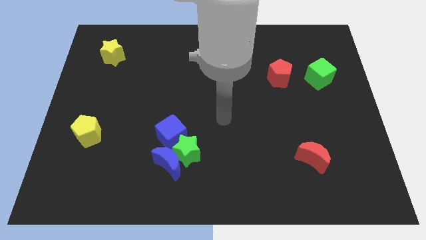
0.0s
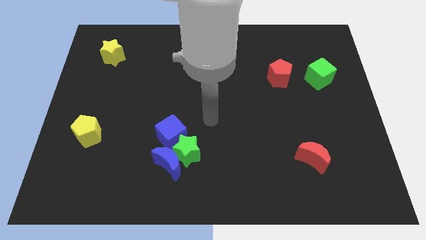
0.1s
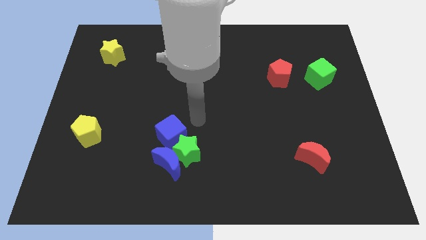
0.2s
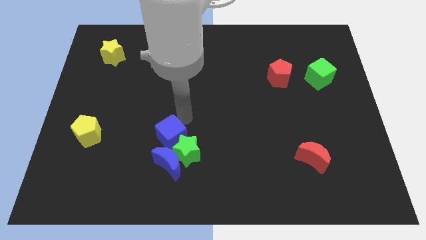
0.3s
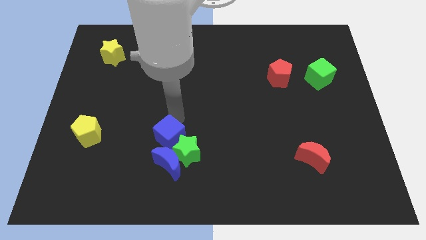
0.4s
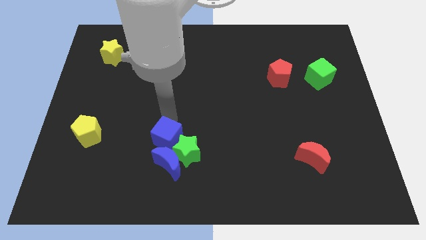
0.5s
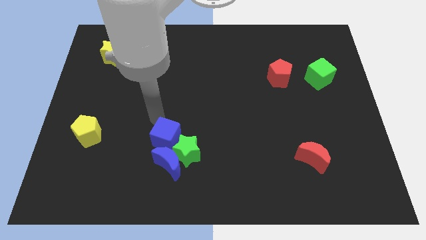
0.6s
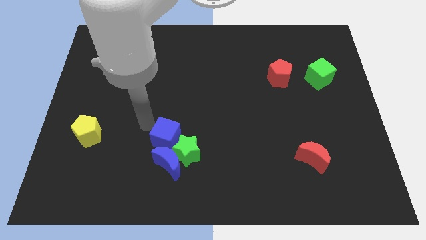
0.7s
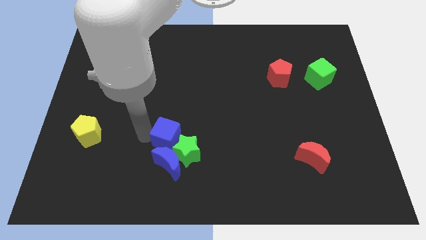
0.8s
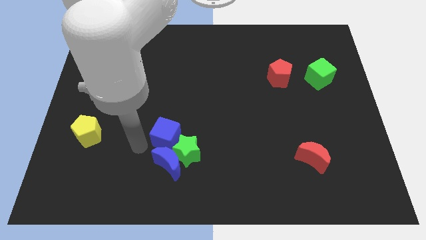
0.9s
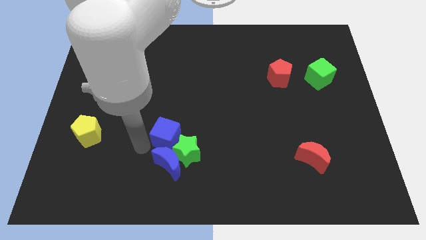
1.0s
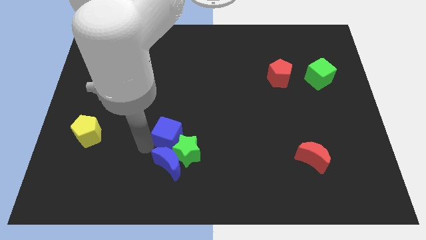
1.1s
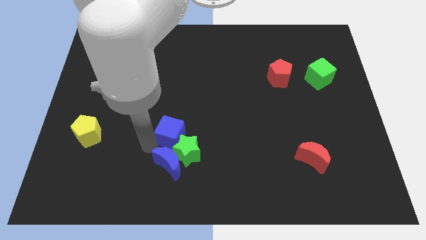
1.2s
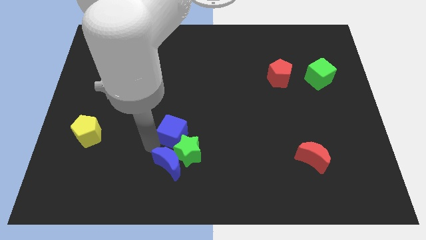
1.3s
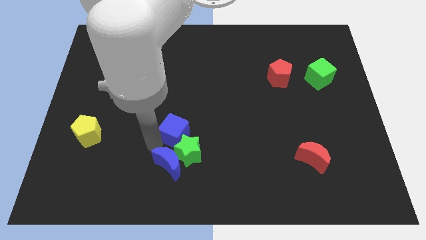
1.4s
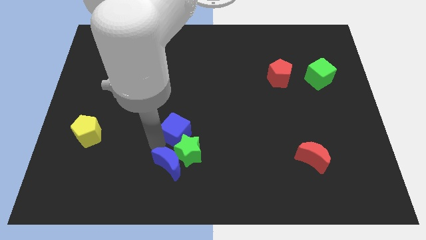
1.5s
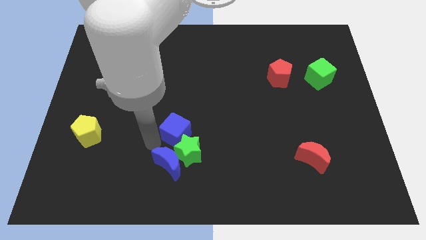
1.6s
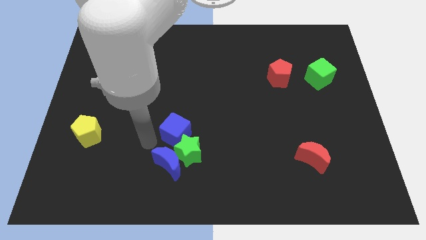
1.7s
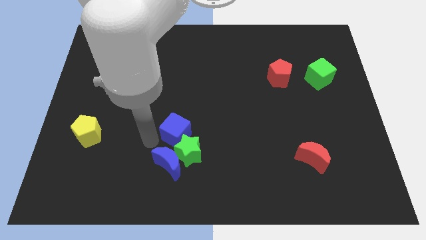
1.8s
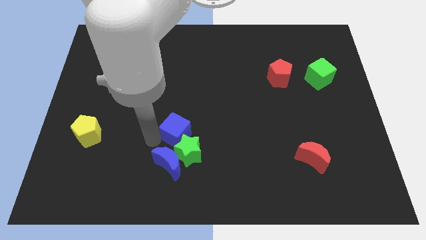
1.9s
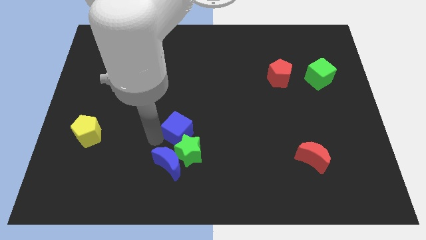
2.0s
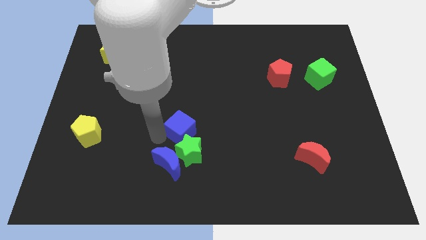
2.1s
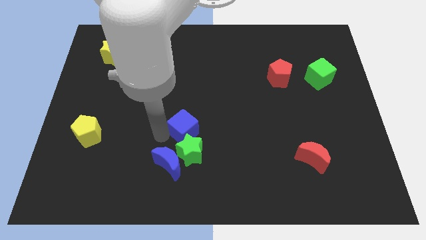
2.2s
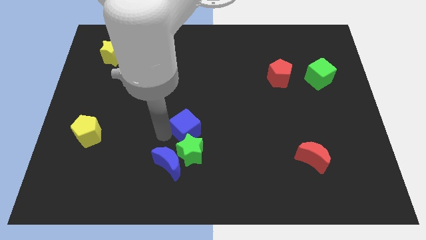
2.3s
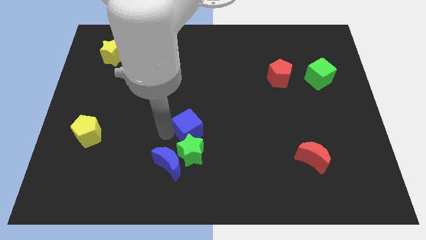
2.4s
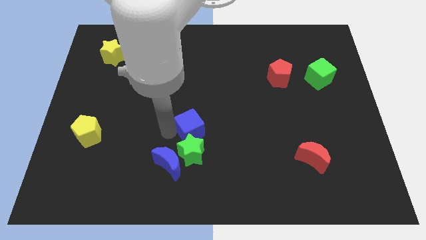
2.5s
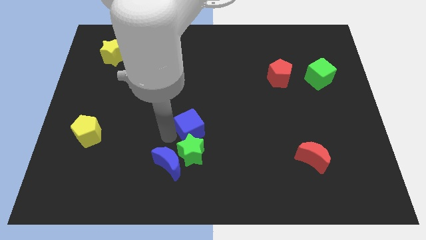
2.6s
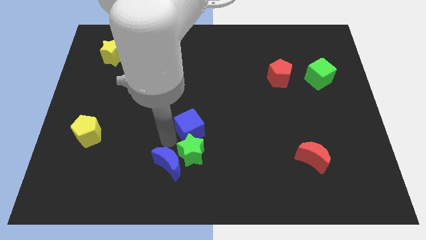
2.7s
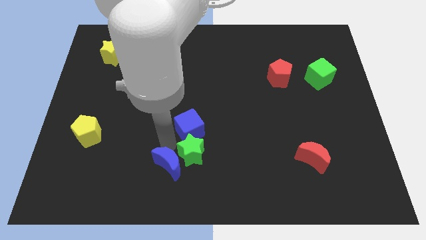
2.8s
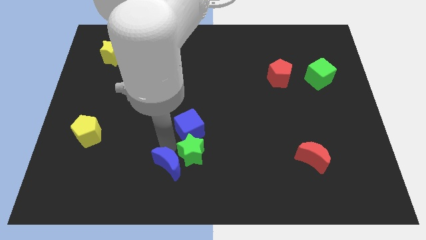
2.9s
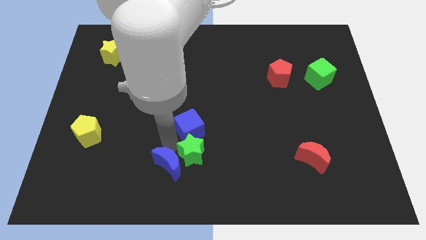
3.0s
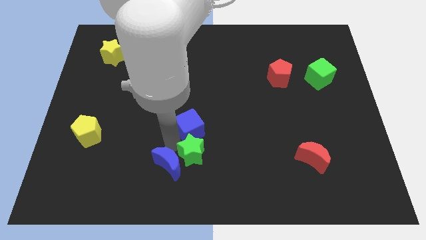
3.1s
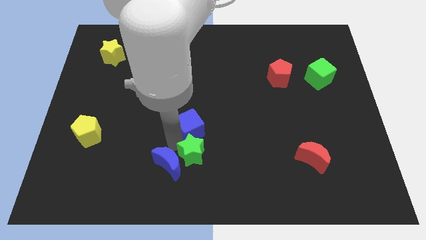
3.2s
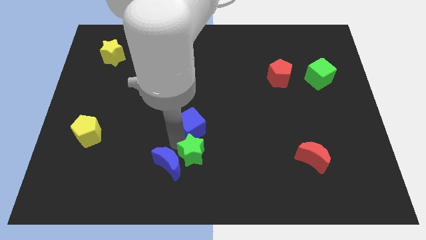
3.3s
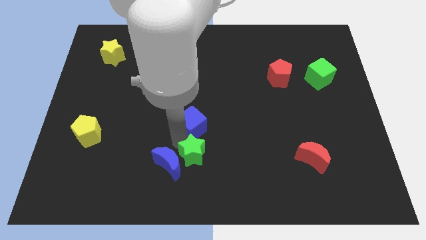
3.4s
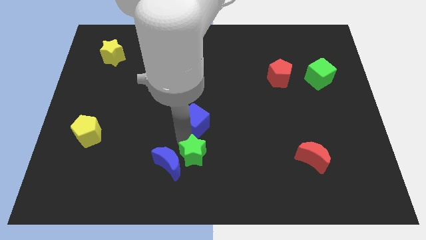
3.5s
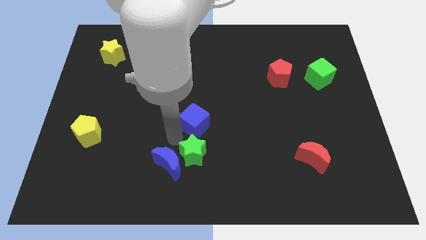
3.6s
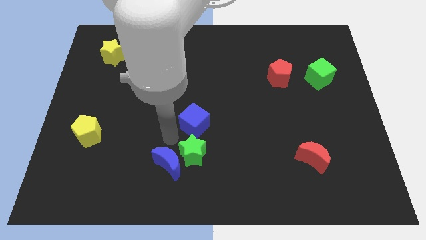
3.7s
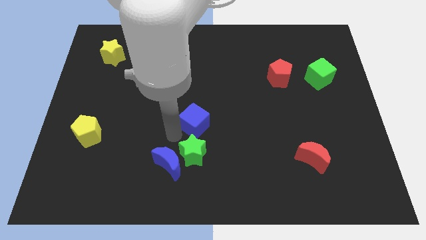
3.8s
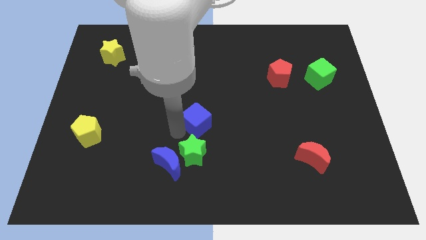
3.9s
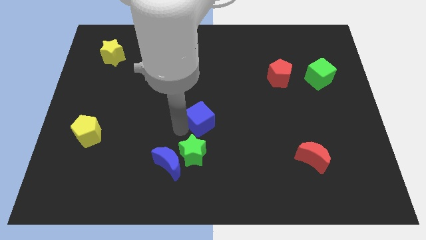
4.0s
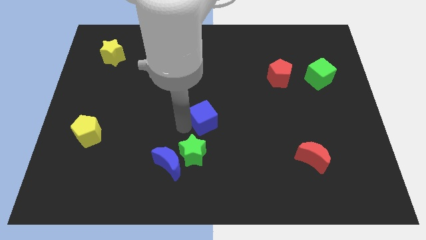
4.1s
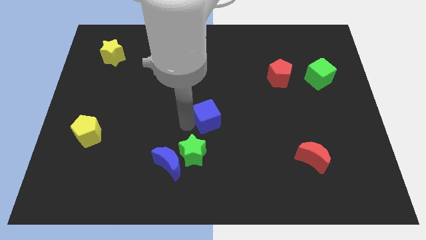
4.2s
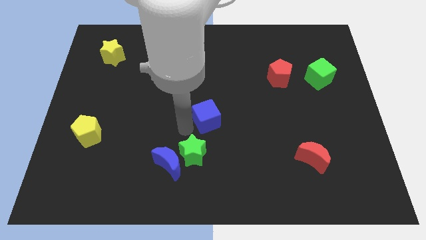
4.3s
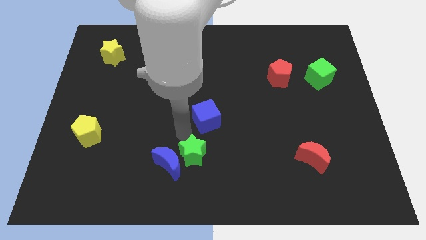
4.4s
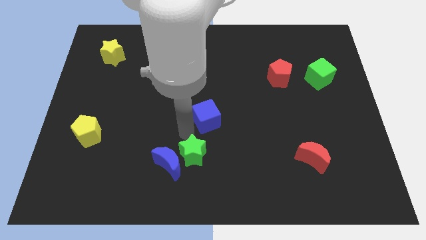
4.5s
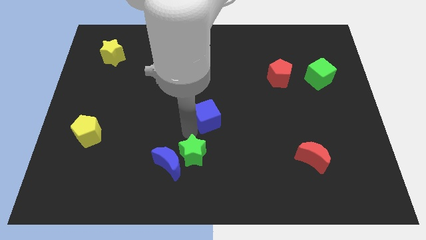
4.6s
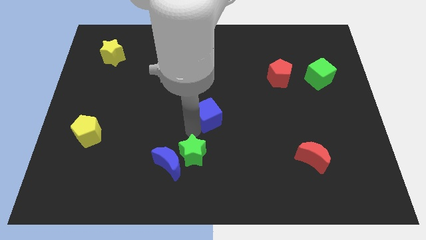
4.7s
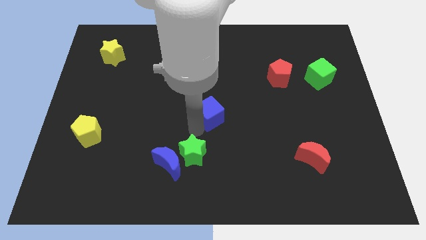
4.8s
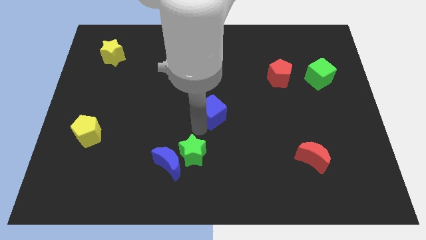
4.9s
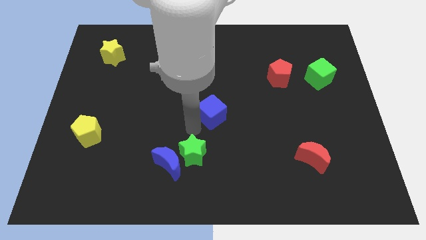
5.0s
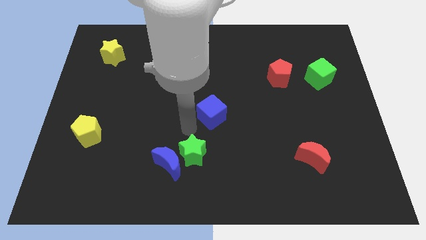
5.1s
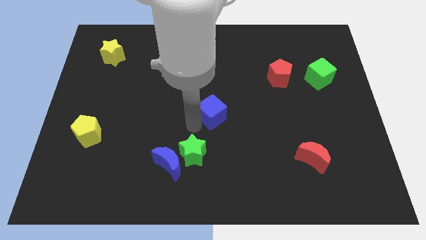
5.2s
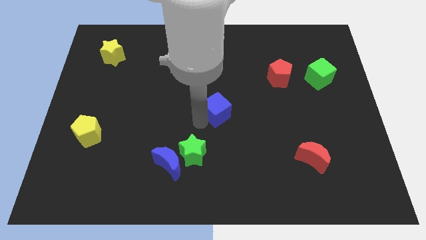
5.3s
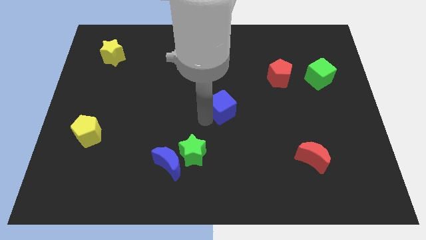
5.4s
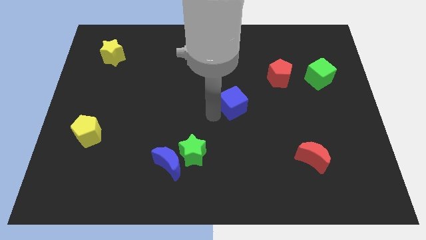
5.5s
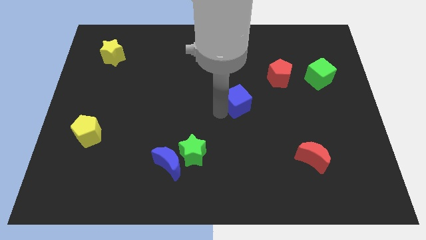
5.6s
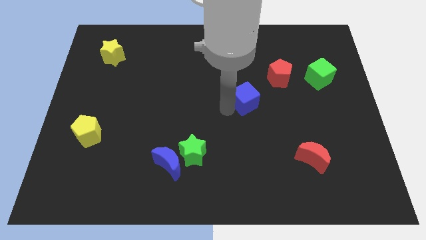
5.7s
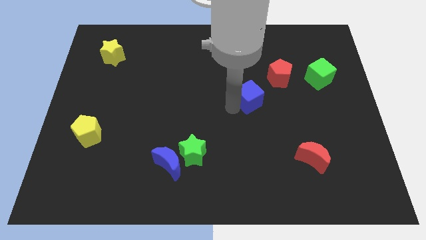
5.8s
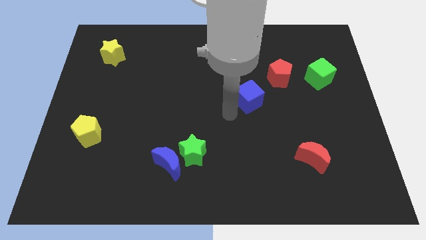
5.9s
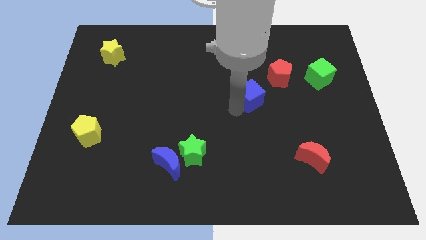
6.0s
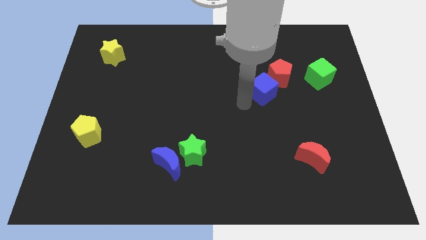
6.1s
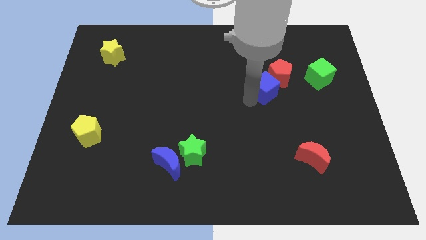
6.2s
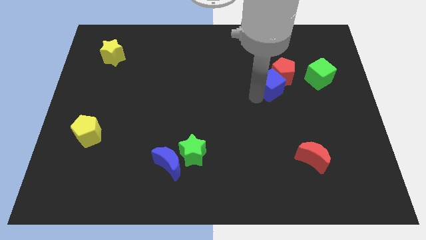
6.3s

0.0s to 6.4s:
slide the blue cube towards the red pentagon

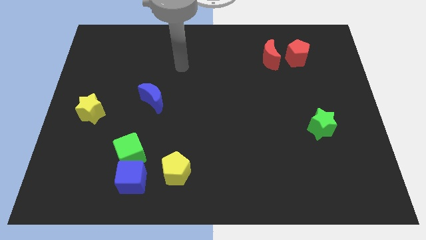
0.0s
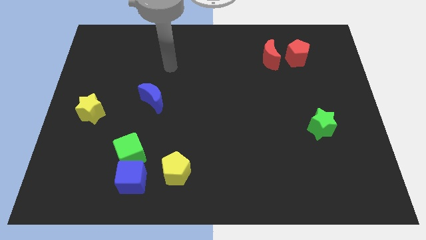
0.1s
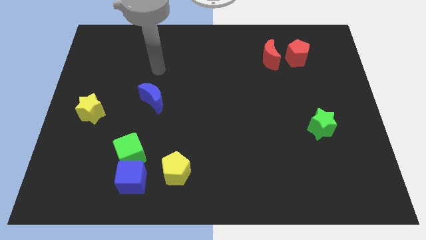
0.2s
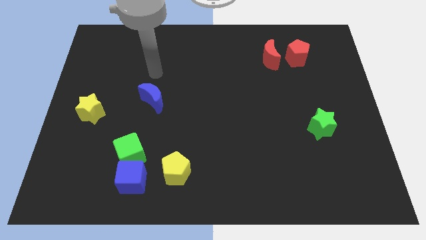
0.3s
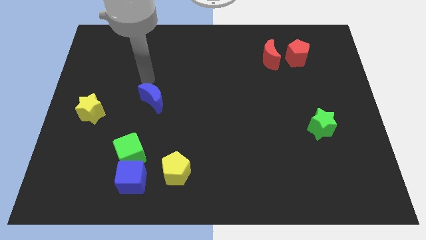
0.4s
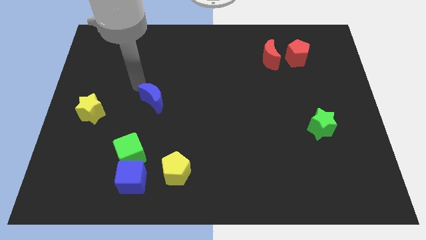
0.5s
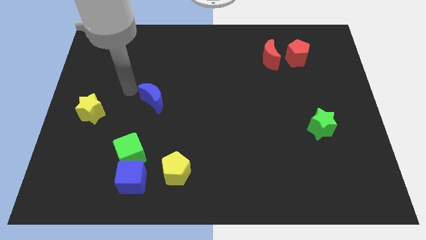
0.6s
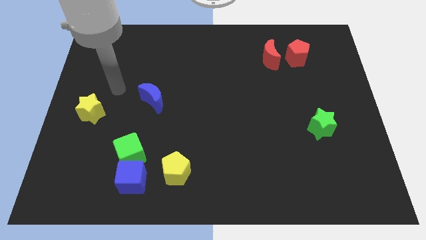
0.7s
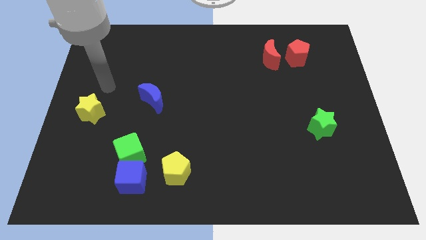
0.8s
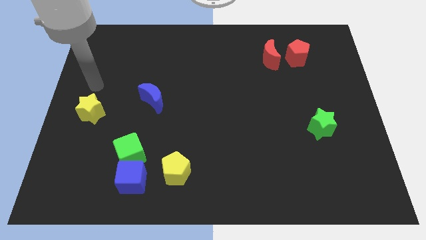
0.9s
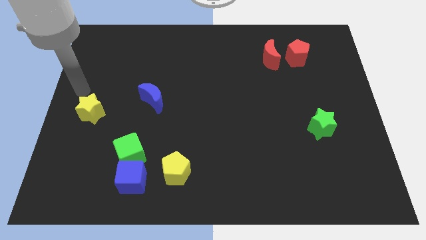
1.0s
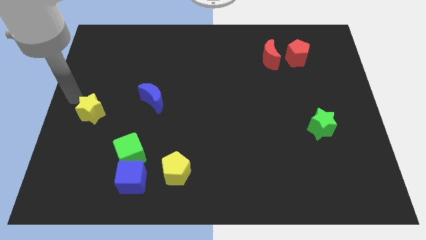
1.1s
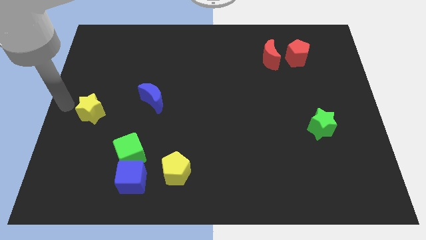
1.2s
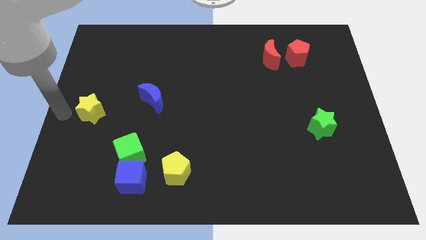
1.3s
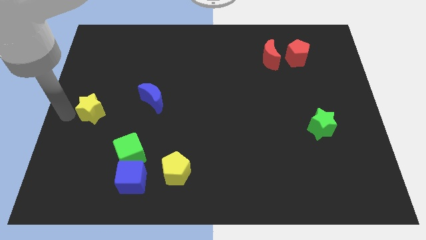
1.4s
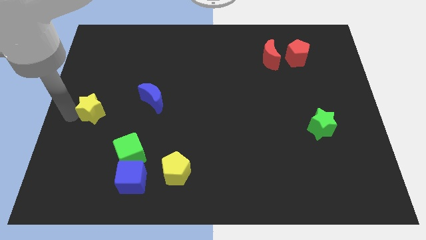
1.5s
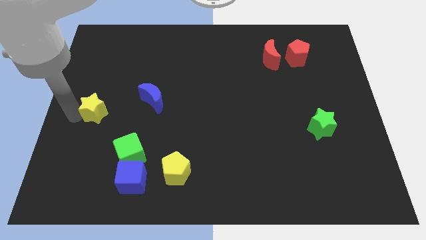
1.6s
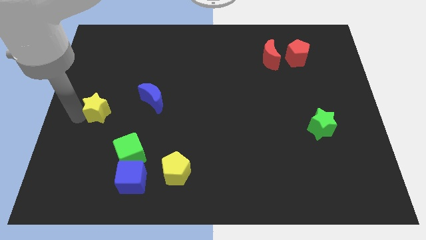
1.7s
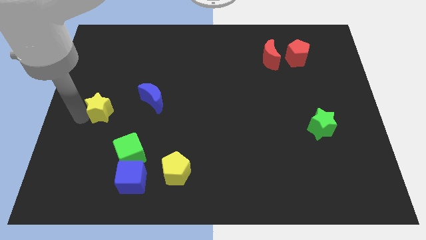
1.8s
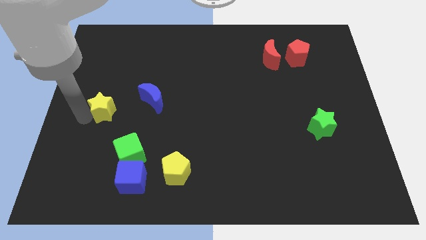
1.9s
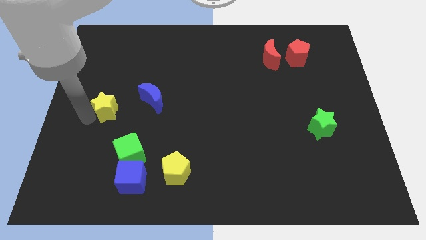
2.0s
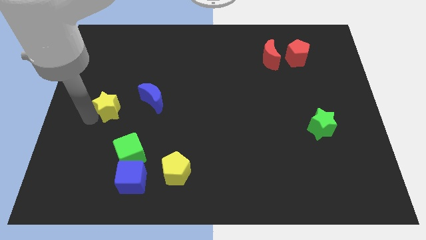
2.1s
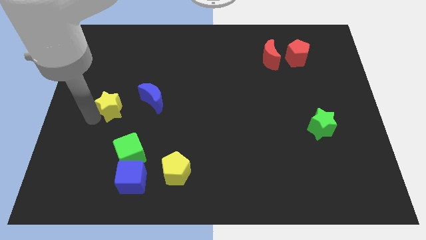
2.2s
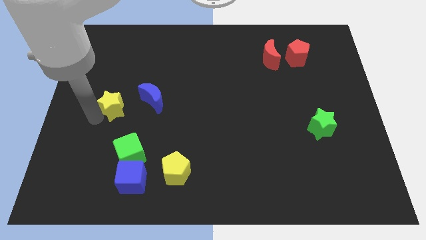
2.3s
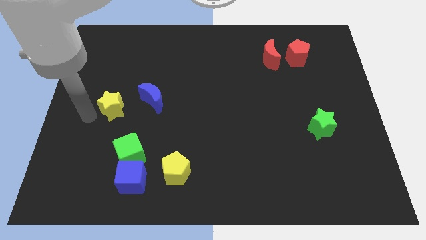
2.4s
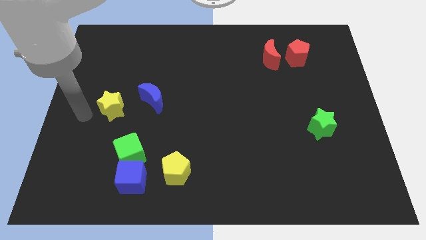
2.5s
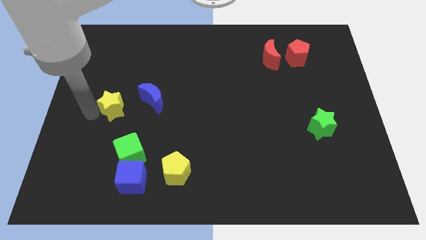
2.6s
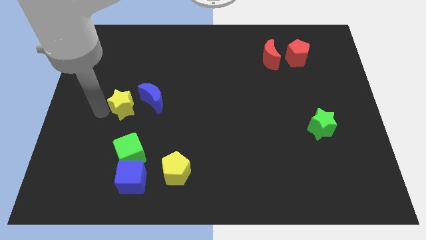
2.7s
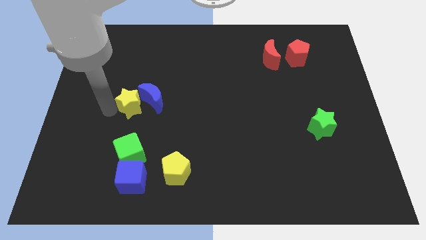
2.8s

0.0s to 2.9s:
slide the yellow star next to the blue moon
